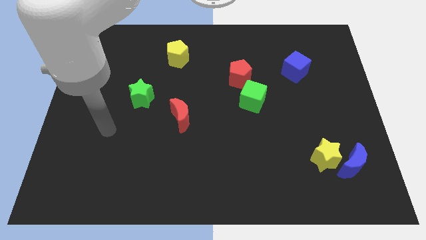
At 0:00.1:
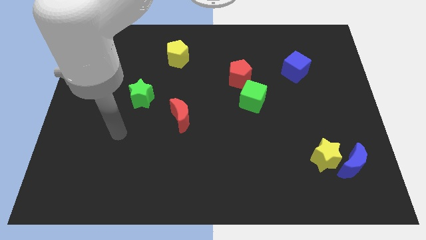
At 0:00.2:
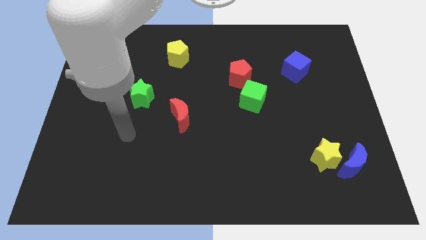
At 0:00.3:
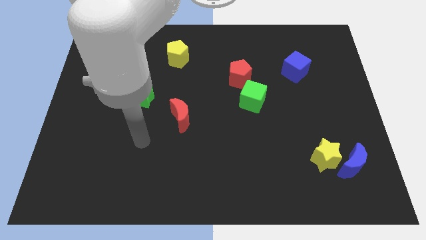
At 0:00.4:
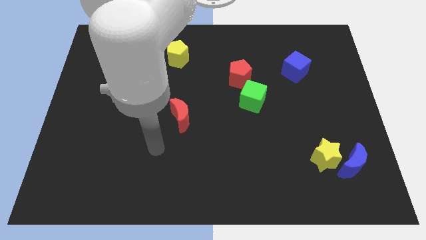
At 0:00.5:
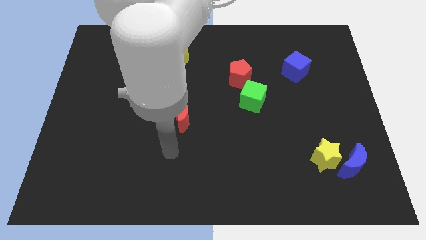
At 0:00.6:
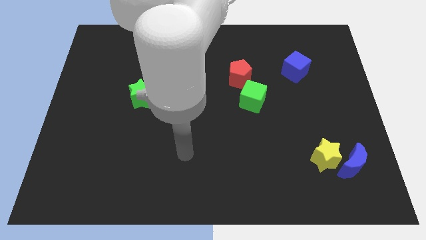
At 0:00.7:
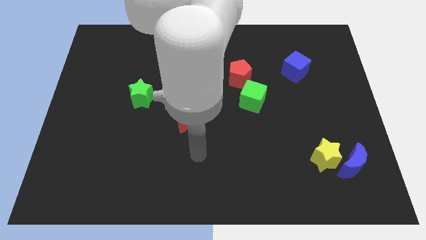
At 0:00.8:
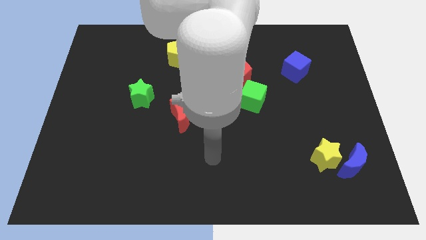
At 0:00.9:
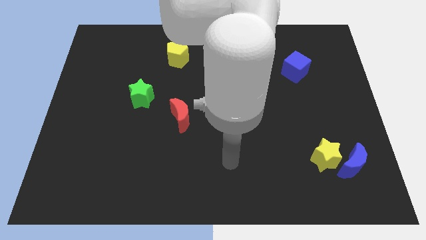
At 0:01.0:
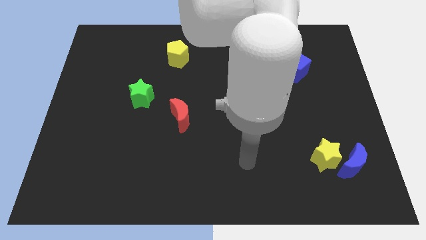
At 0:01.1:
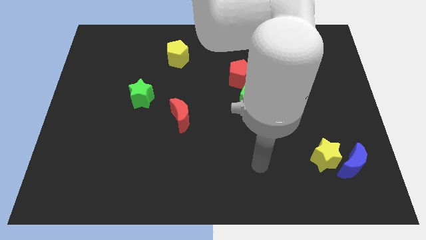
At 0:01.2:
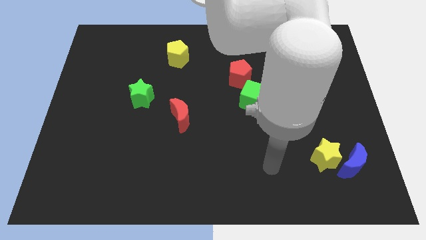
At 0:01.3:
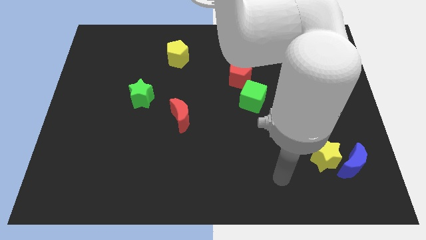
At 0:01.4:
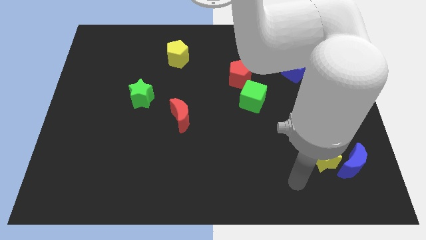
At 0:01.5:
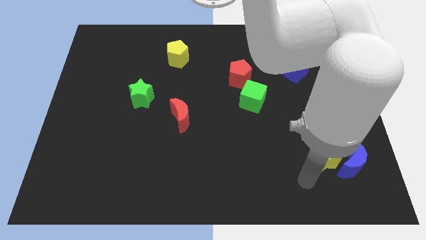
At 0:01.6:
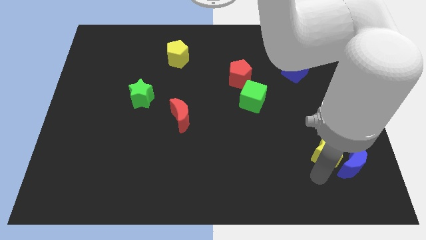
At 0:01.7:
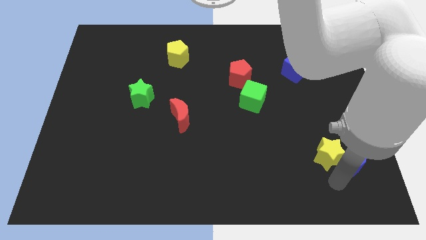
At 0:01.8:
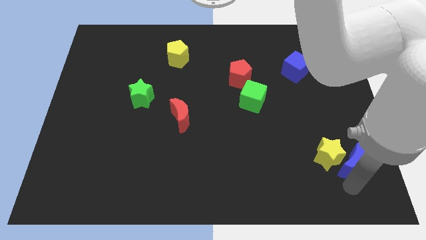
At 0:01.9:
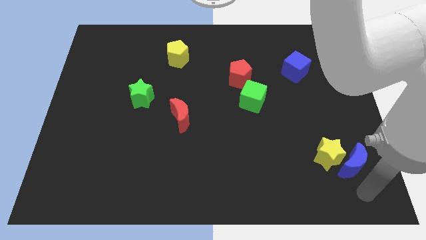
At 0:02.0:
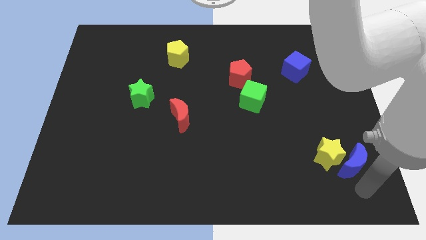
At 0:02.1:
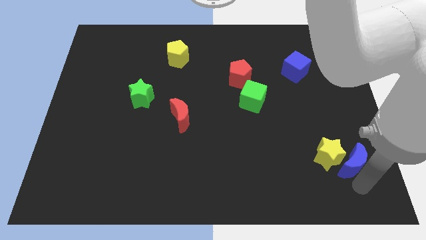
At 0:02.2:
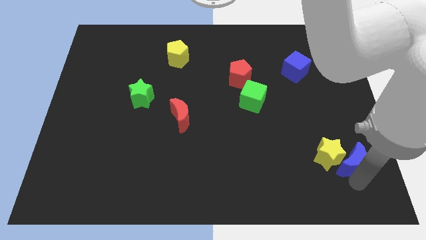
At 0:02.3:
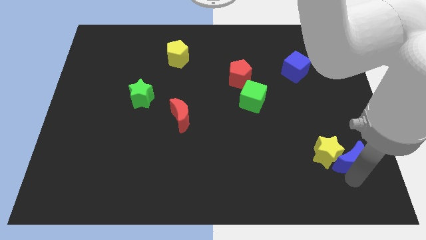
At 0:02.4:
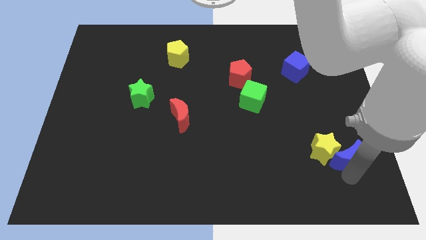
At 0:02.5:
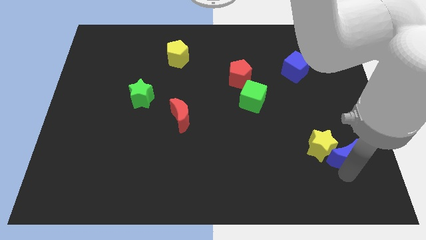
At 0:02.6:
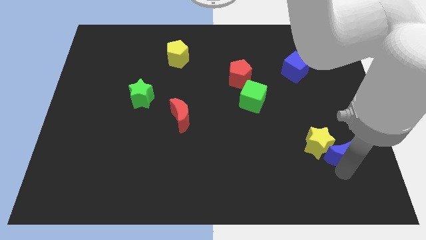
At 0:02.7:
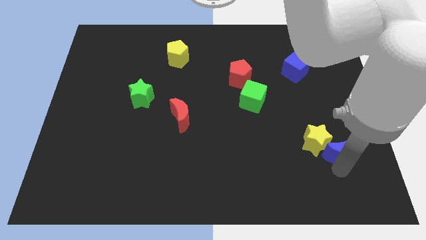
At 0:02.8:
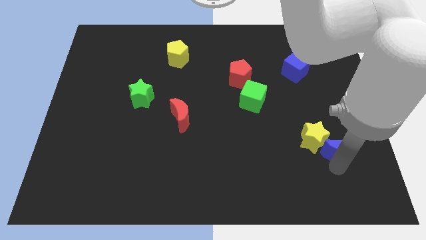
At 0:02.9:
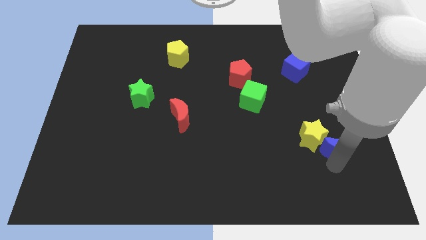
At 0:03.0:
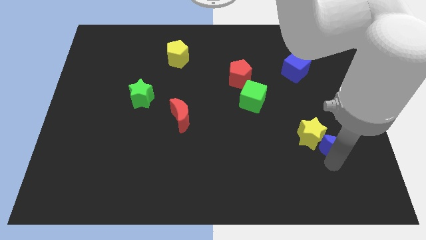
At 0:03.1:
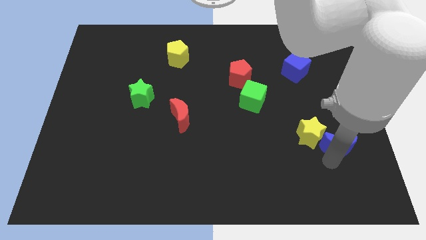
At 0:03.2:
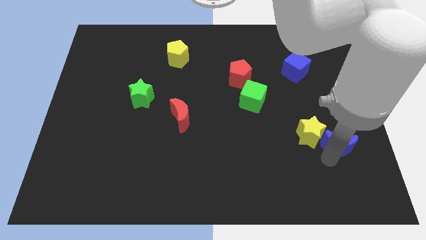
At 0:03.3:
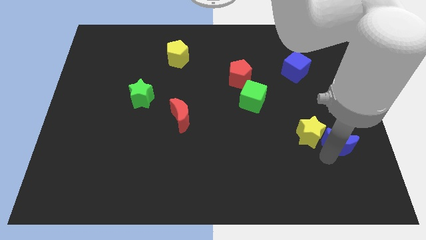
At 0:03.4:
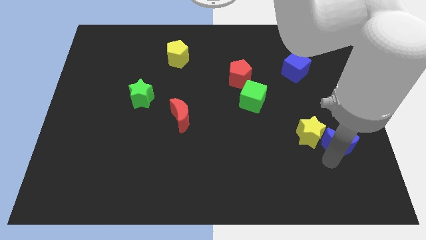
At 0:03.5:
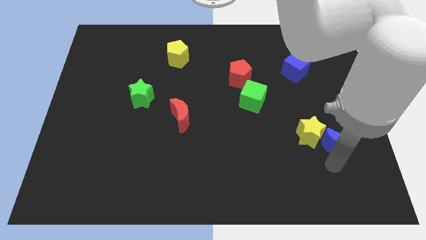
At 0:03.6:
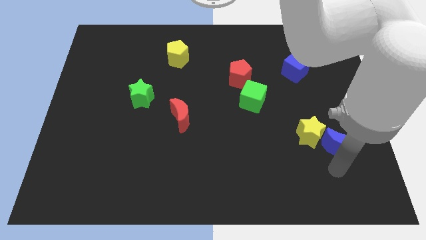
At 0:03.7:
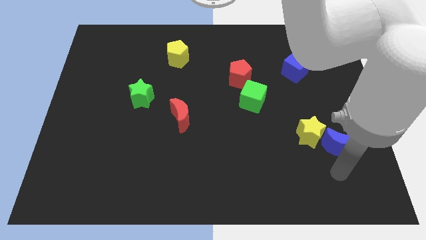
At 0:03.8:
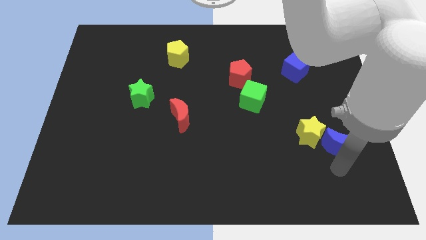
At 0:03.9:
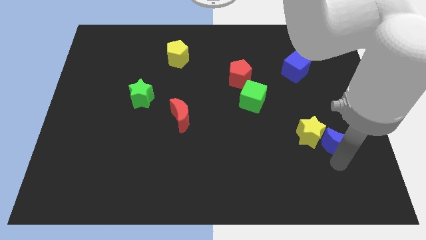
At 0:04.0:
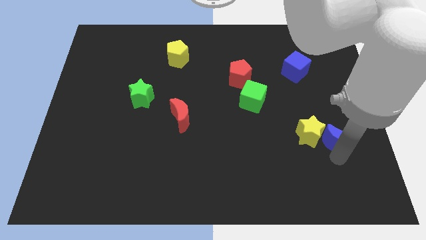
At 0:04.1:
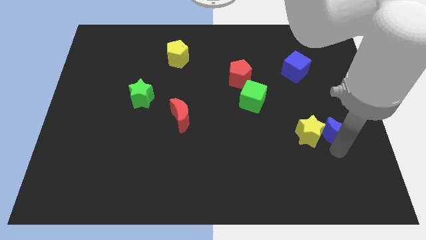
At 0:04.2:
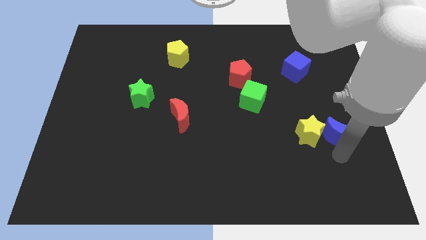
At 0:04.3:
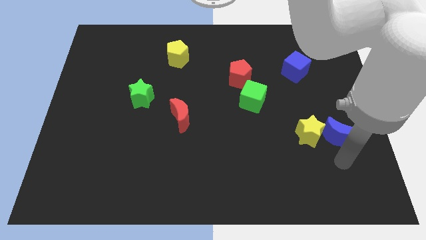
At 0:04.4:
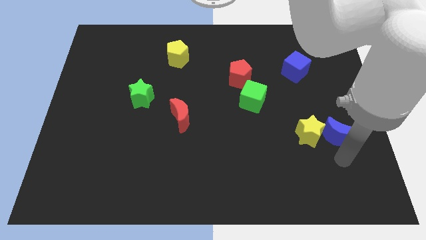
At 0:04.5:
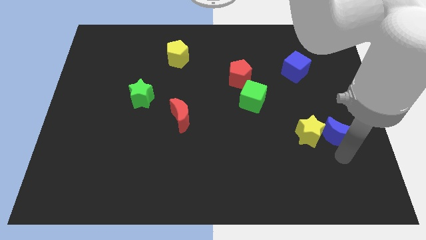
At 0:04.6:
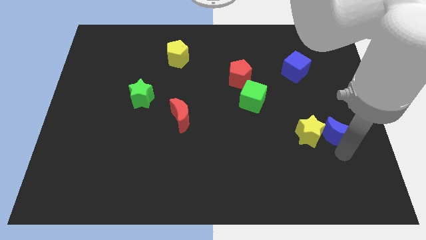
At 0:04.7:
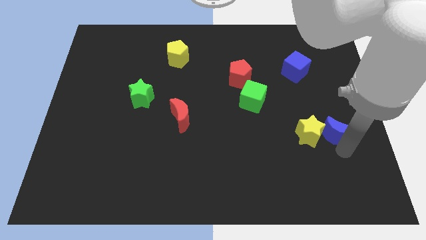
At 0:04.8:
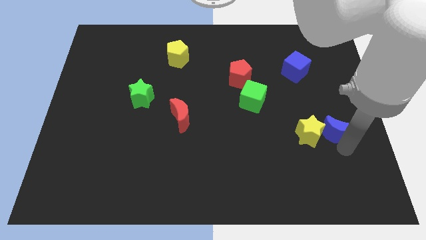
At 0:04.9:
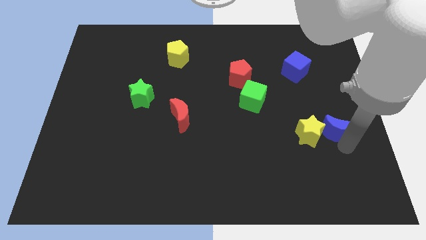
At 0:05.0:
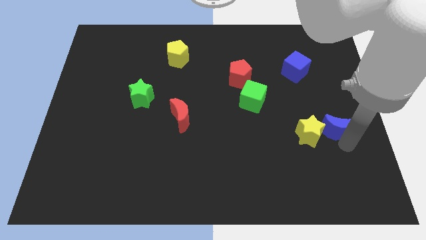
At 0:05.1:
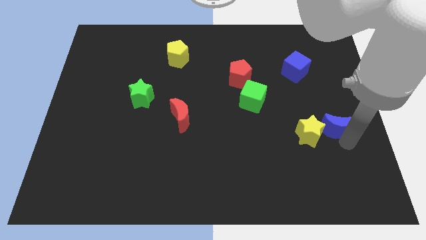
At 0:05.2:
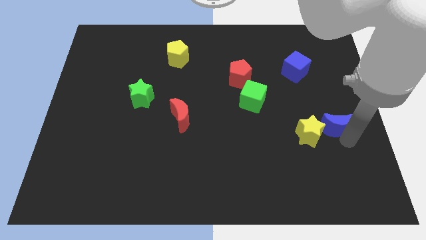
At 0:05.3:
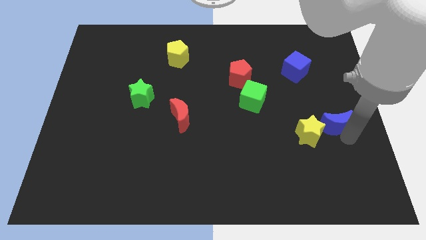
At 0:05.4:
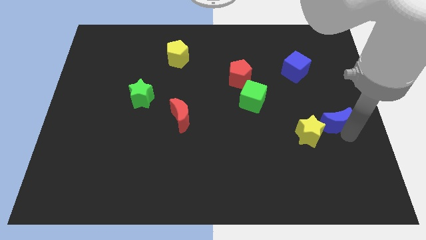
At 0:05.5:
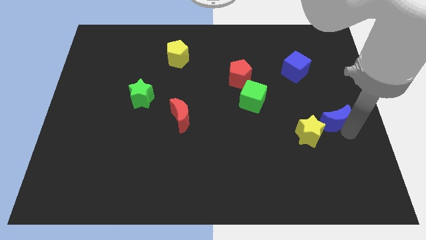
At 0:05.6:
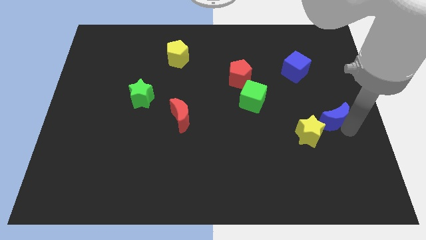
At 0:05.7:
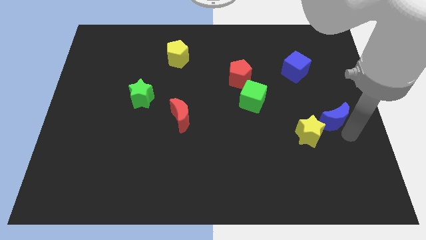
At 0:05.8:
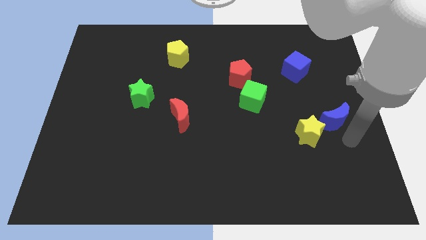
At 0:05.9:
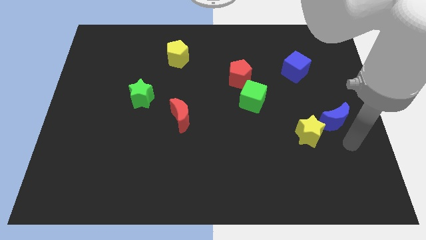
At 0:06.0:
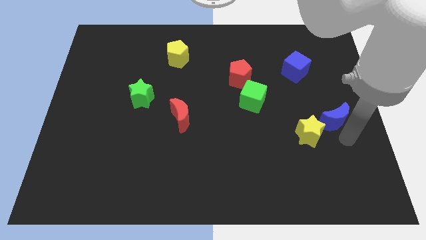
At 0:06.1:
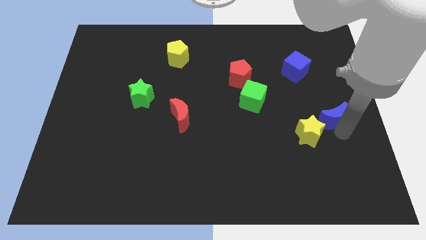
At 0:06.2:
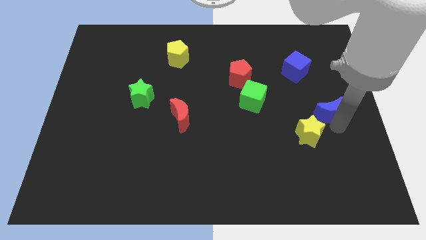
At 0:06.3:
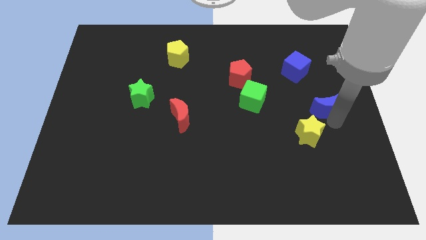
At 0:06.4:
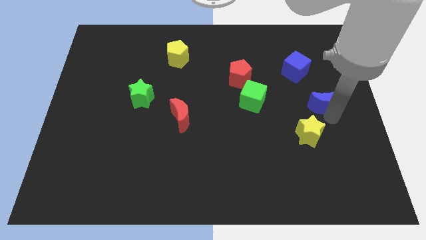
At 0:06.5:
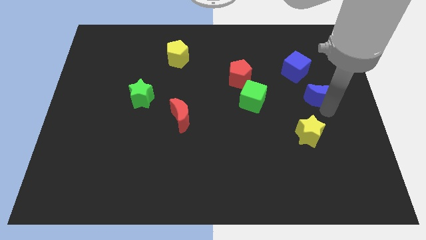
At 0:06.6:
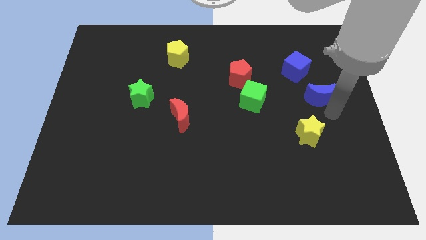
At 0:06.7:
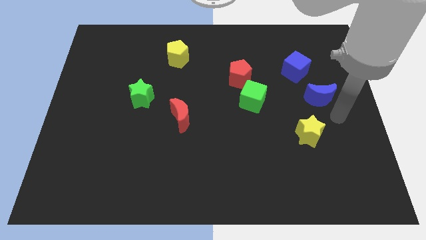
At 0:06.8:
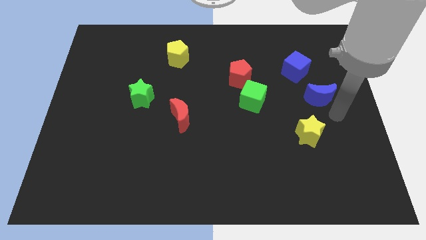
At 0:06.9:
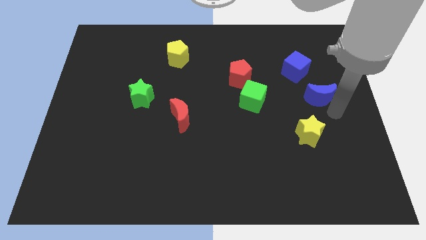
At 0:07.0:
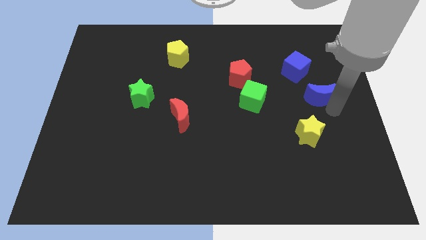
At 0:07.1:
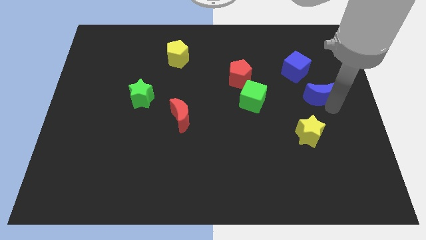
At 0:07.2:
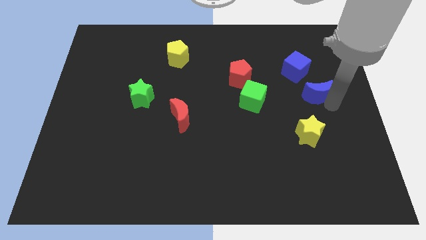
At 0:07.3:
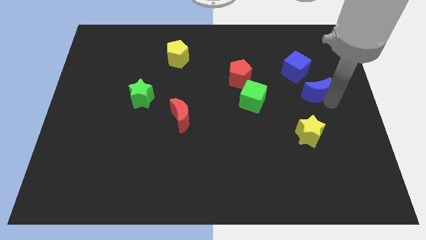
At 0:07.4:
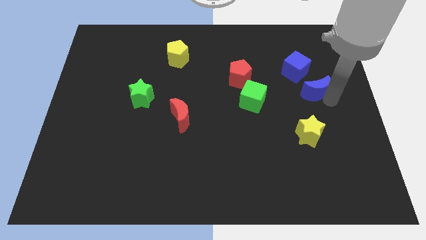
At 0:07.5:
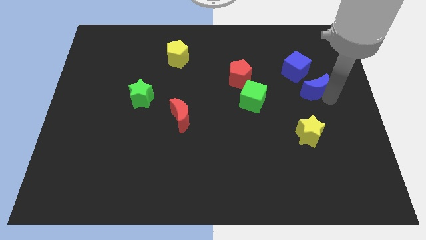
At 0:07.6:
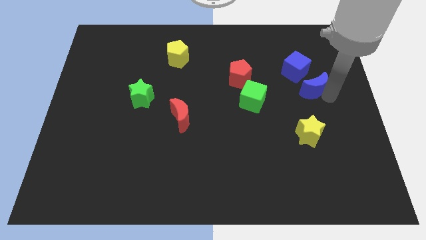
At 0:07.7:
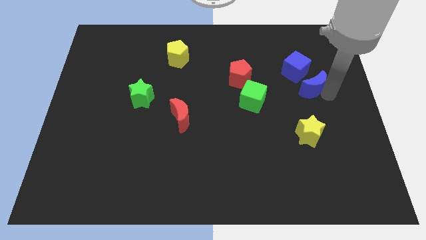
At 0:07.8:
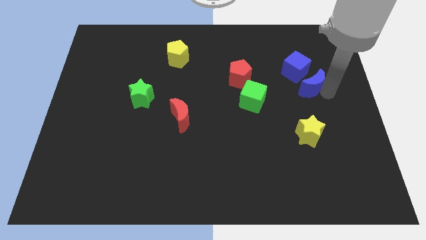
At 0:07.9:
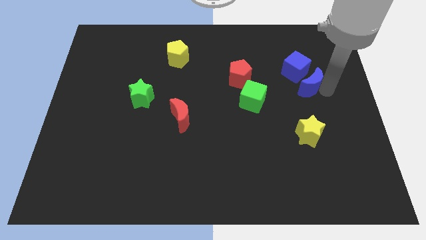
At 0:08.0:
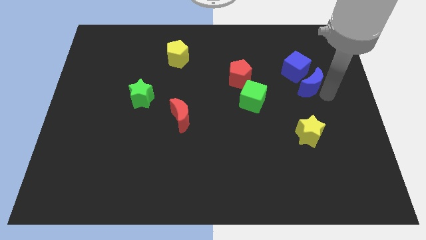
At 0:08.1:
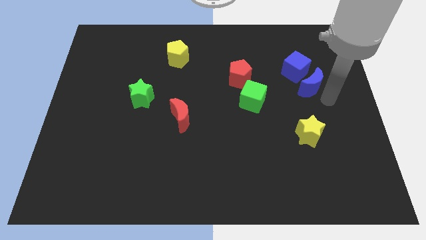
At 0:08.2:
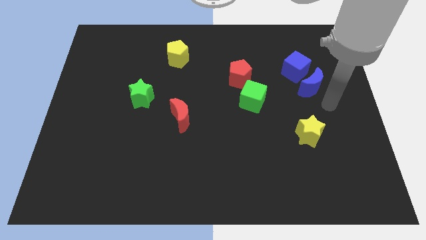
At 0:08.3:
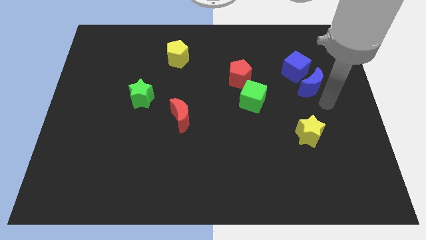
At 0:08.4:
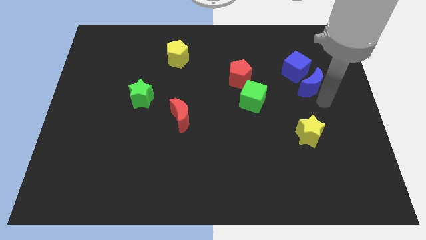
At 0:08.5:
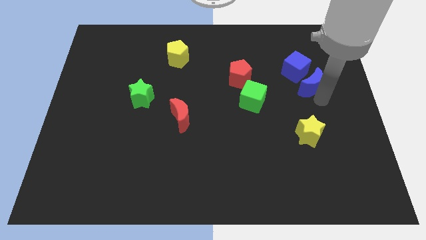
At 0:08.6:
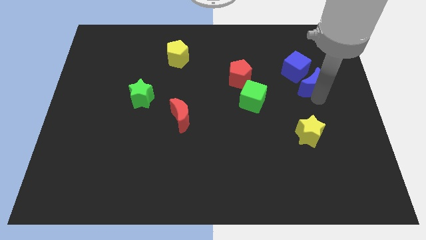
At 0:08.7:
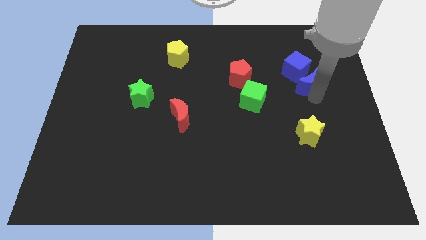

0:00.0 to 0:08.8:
slide the blue moon next to the blue cube
